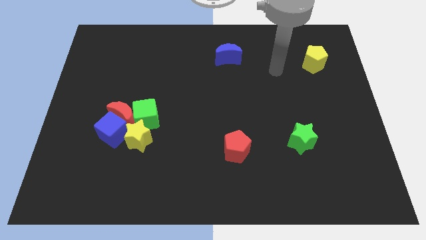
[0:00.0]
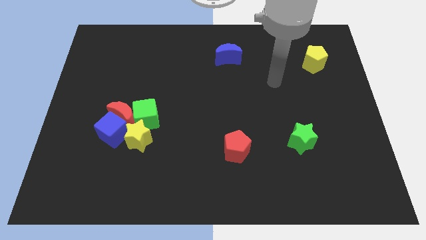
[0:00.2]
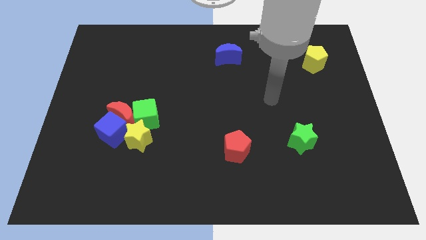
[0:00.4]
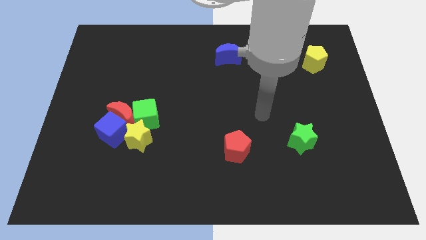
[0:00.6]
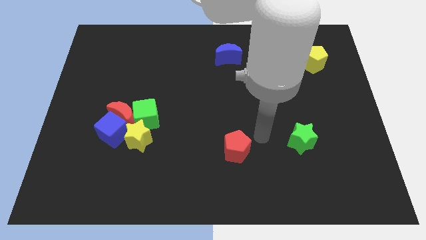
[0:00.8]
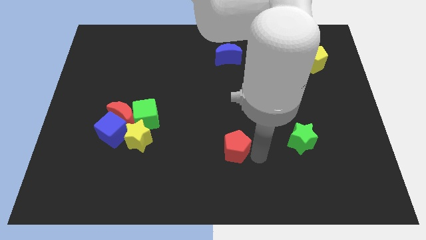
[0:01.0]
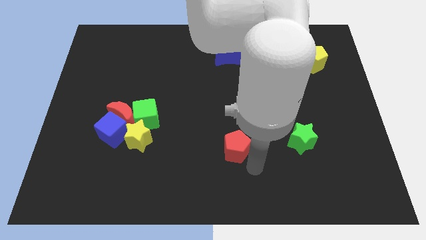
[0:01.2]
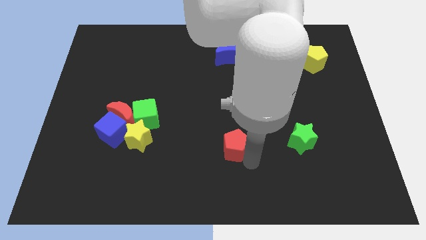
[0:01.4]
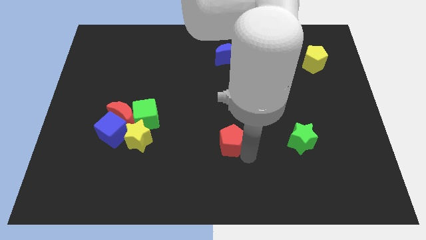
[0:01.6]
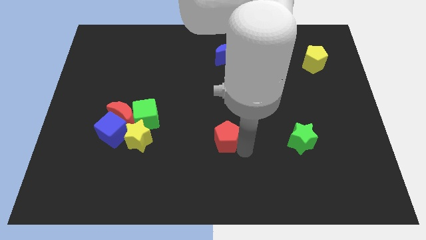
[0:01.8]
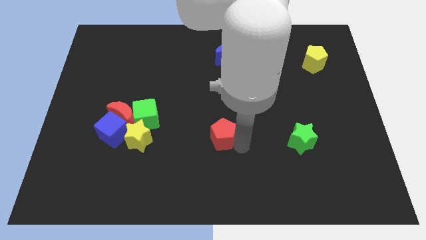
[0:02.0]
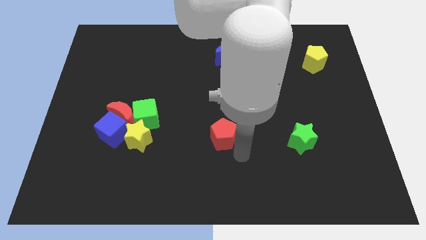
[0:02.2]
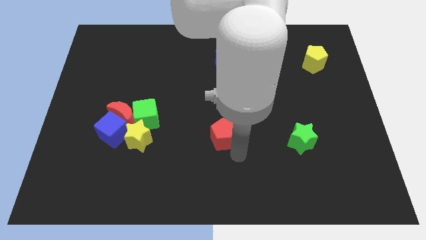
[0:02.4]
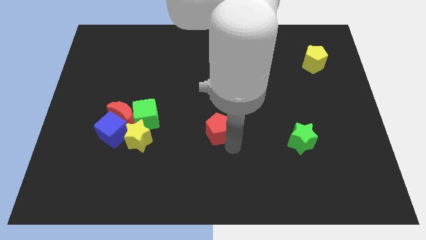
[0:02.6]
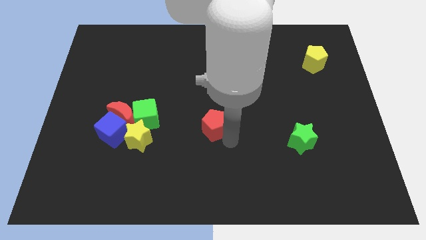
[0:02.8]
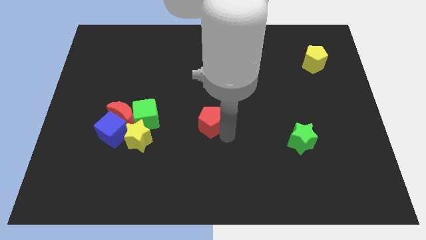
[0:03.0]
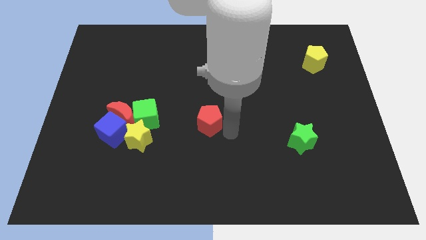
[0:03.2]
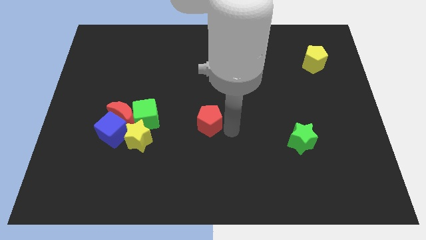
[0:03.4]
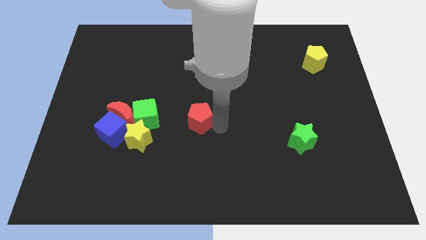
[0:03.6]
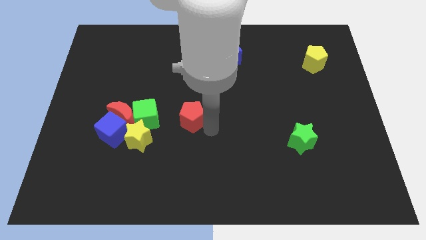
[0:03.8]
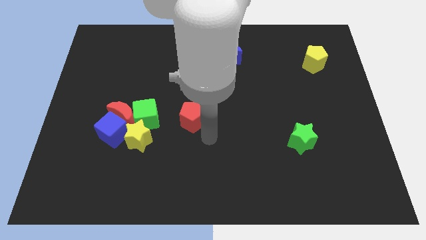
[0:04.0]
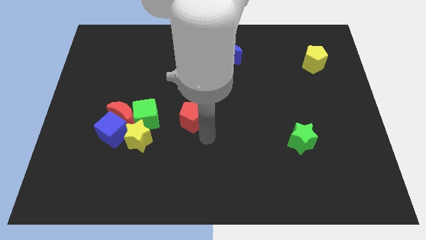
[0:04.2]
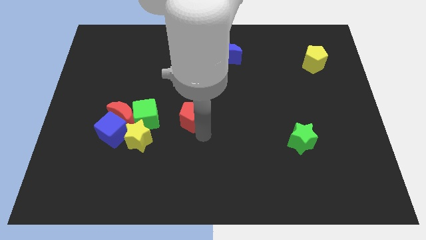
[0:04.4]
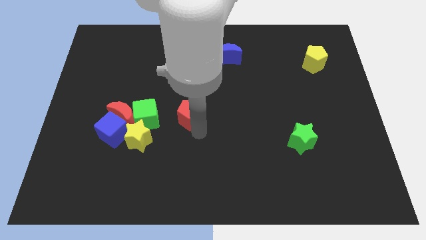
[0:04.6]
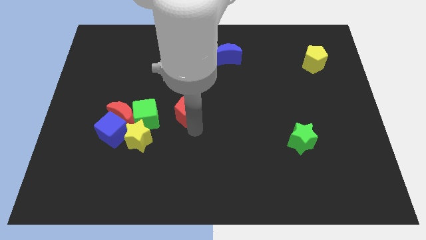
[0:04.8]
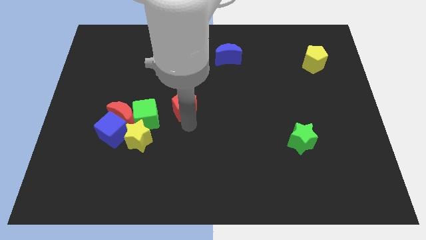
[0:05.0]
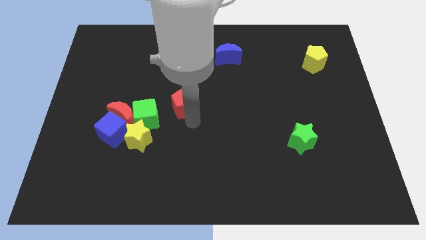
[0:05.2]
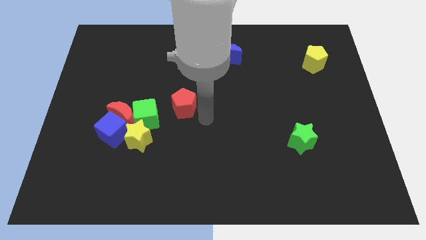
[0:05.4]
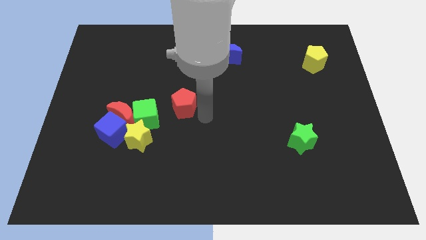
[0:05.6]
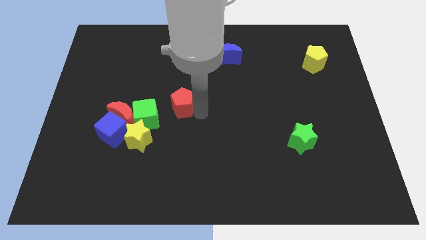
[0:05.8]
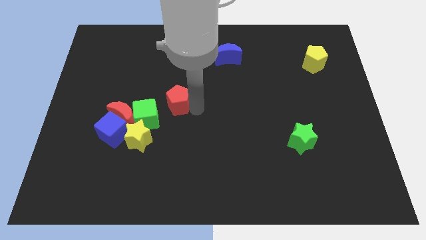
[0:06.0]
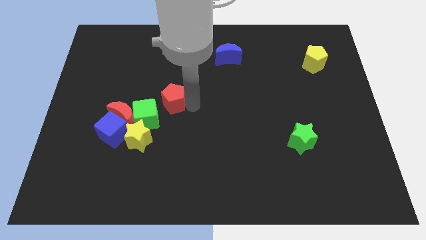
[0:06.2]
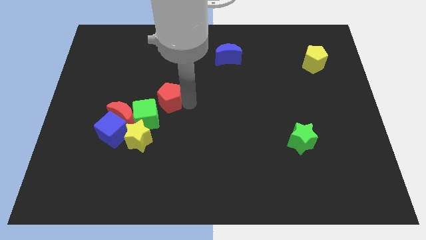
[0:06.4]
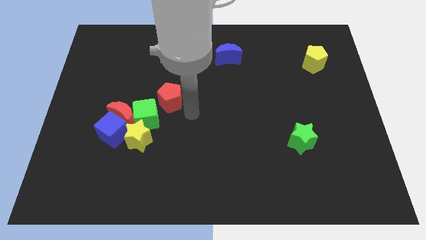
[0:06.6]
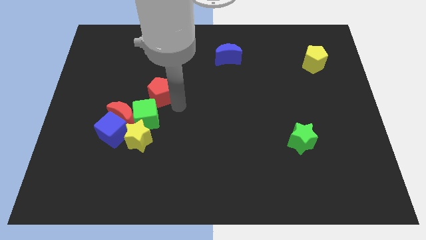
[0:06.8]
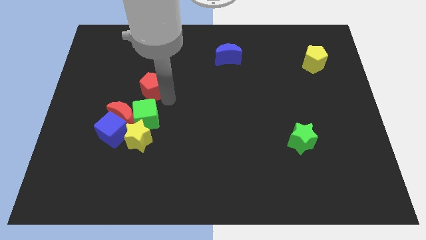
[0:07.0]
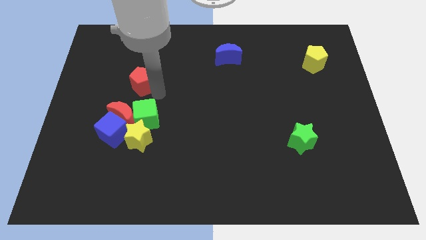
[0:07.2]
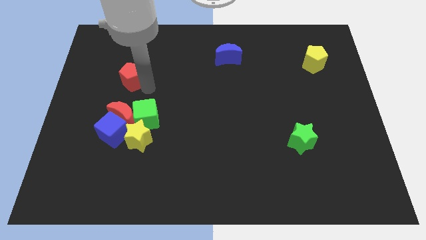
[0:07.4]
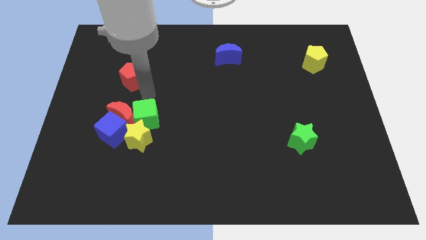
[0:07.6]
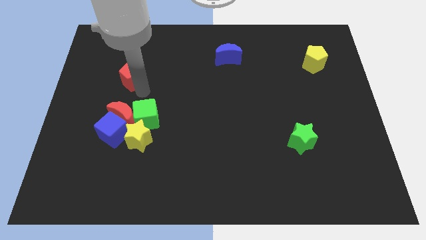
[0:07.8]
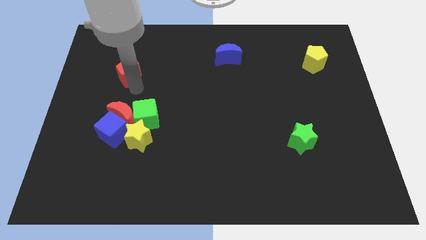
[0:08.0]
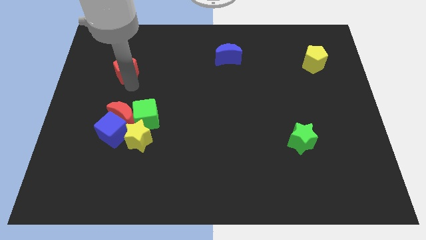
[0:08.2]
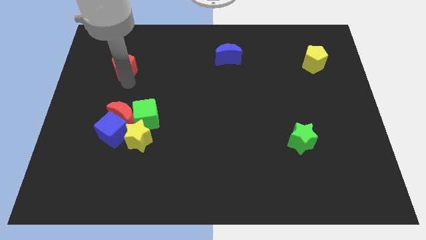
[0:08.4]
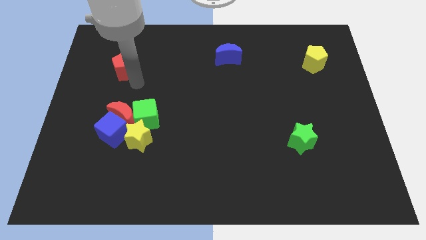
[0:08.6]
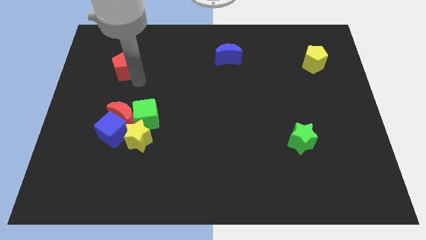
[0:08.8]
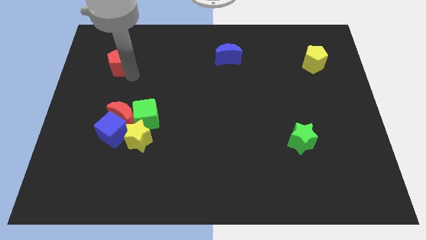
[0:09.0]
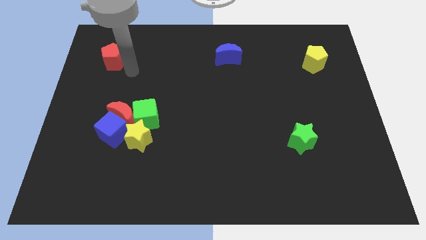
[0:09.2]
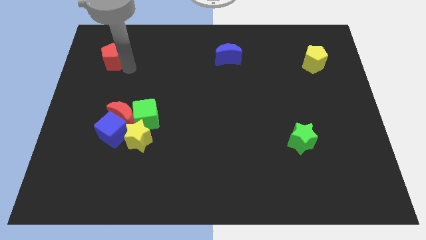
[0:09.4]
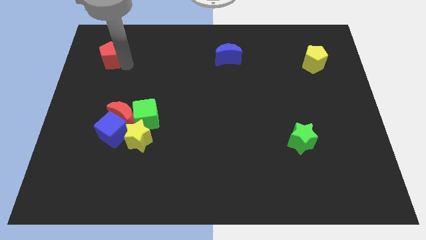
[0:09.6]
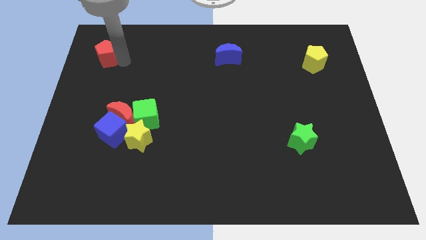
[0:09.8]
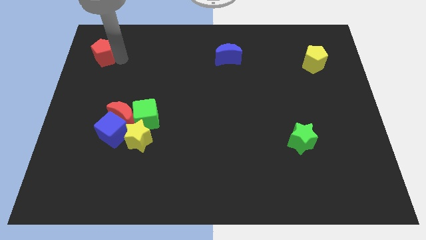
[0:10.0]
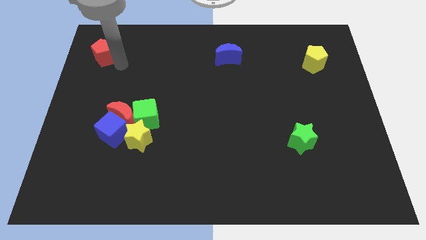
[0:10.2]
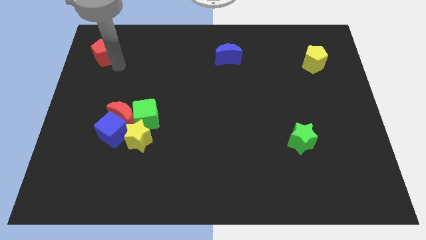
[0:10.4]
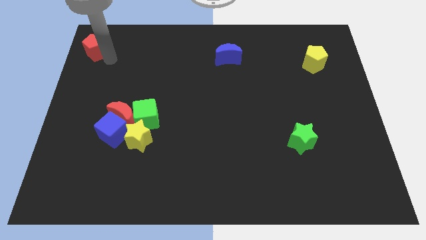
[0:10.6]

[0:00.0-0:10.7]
slide the red pentagon to the upper left corner
